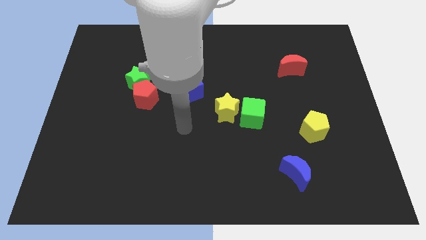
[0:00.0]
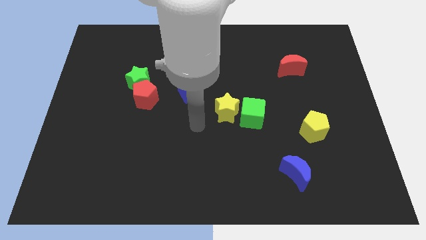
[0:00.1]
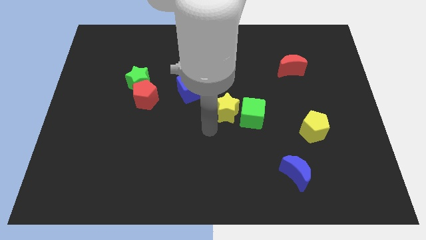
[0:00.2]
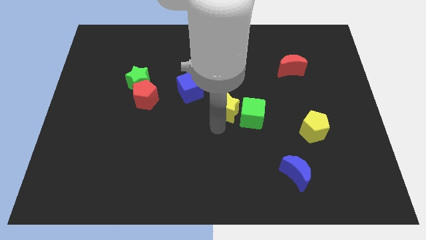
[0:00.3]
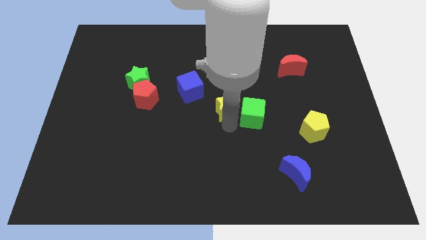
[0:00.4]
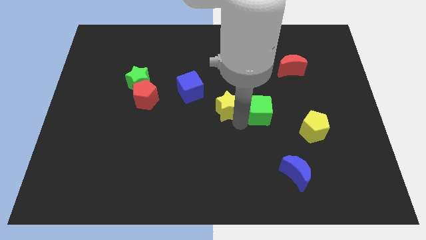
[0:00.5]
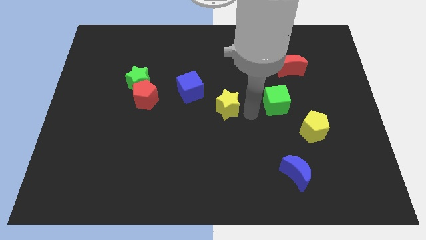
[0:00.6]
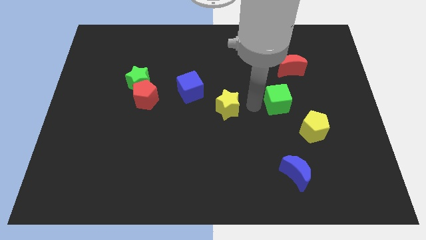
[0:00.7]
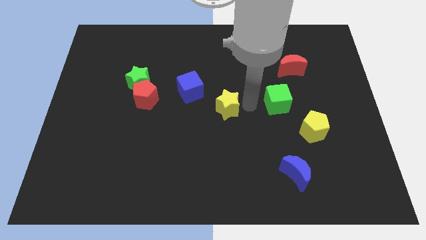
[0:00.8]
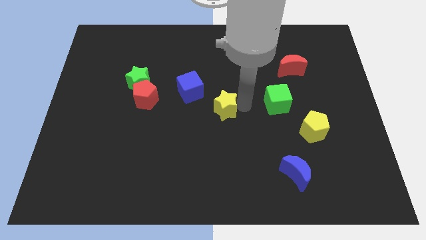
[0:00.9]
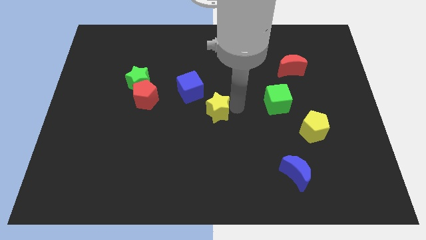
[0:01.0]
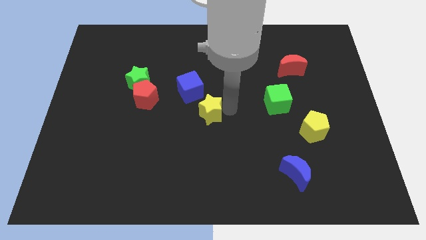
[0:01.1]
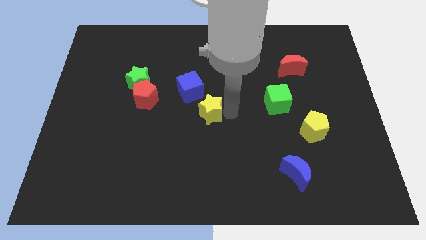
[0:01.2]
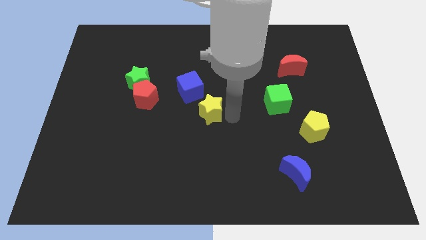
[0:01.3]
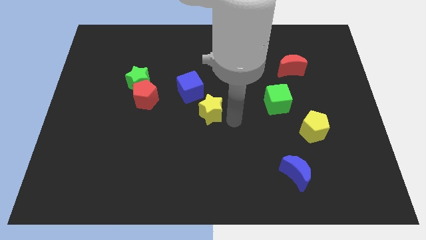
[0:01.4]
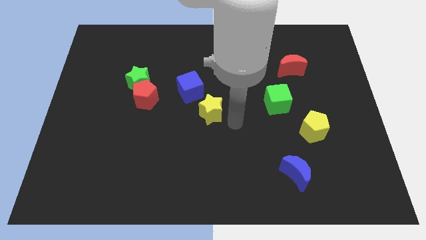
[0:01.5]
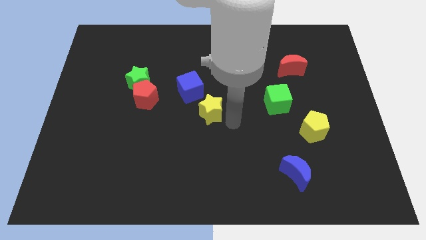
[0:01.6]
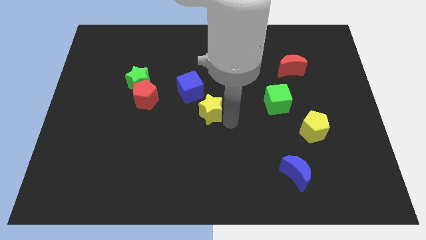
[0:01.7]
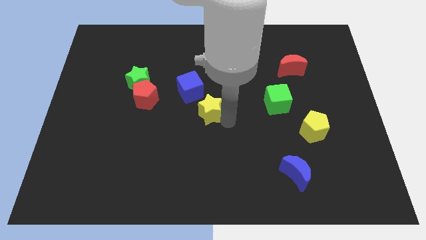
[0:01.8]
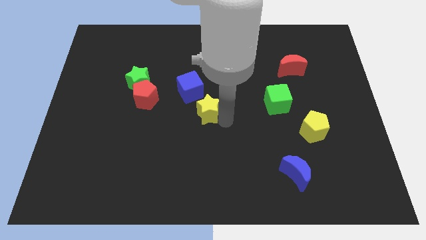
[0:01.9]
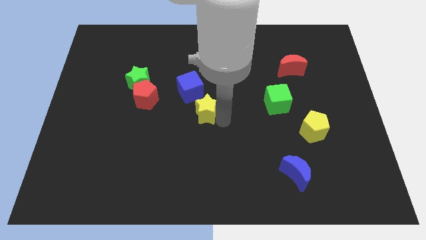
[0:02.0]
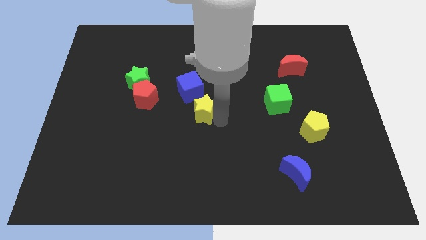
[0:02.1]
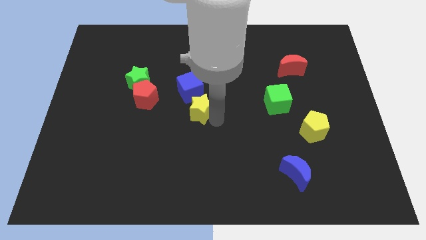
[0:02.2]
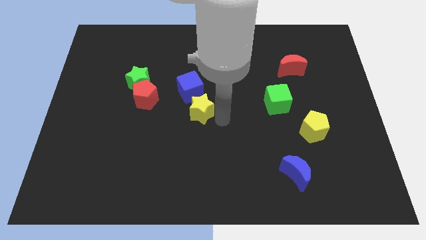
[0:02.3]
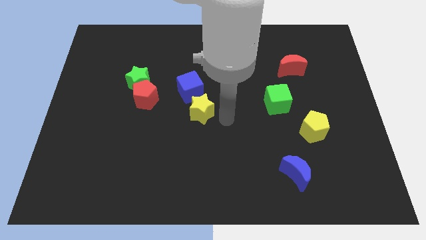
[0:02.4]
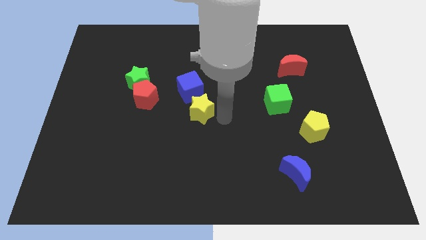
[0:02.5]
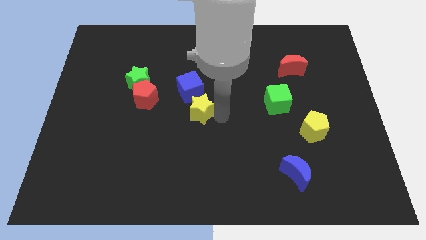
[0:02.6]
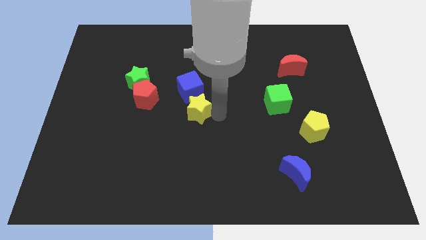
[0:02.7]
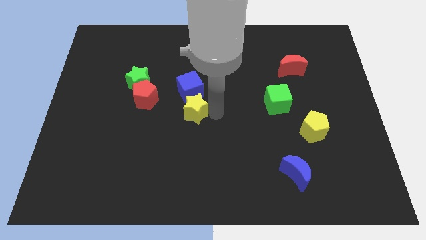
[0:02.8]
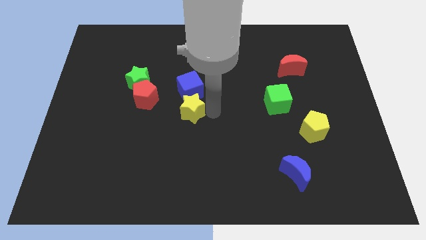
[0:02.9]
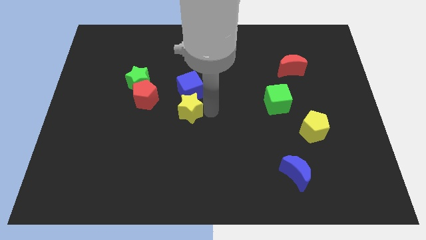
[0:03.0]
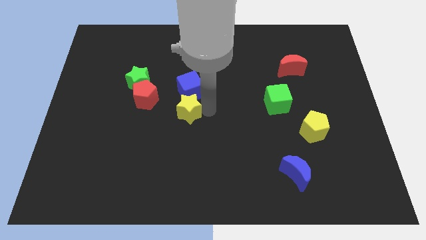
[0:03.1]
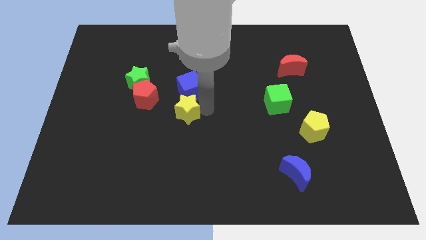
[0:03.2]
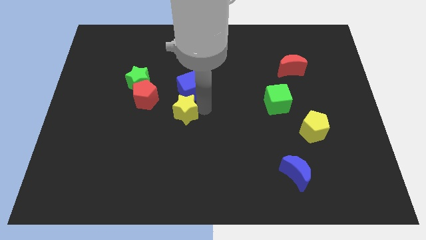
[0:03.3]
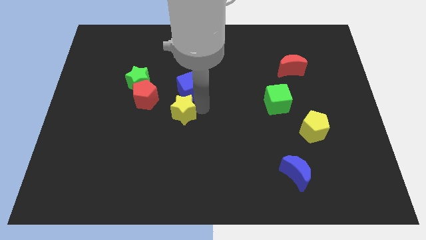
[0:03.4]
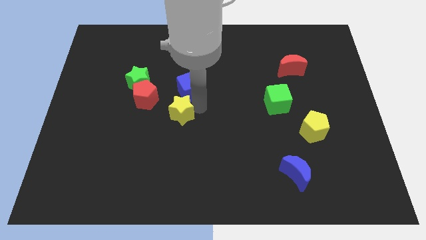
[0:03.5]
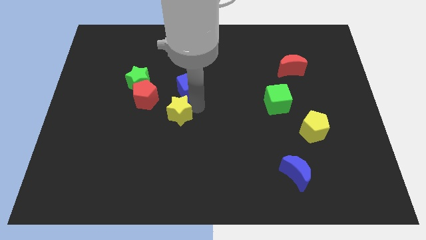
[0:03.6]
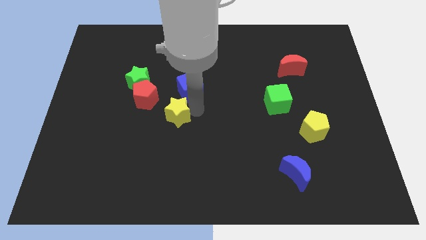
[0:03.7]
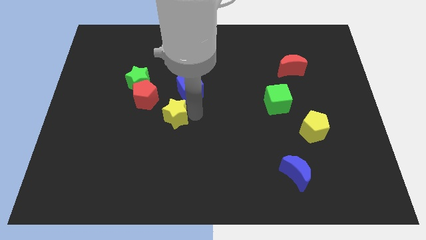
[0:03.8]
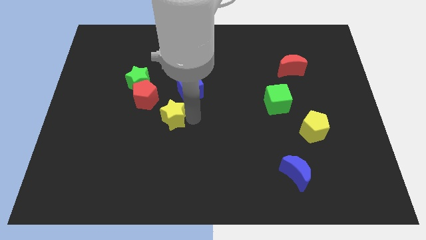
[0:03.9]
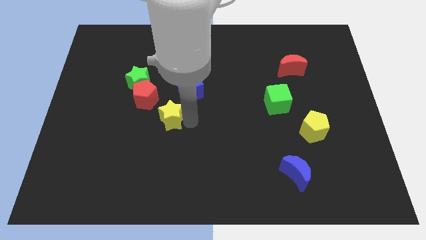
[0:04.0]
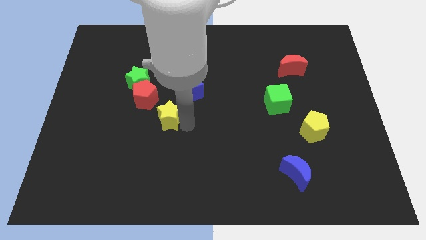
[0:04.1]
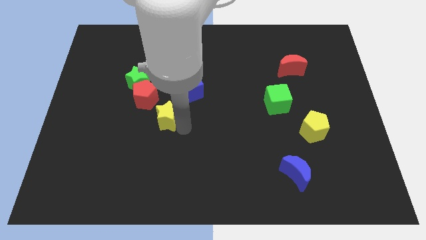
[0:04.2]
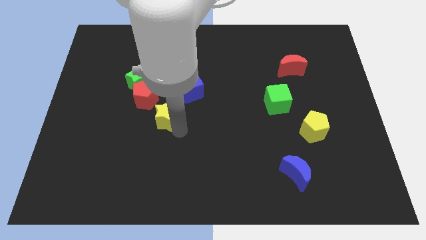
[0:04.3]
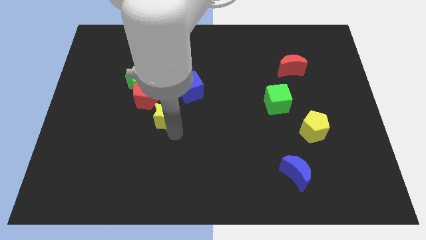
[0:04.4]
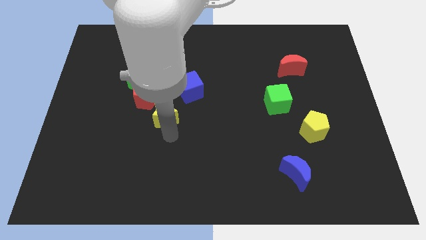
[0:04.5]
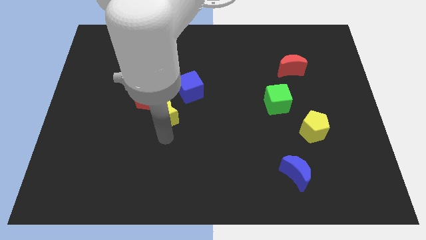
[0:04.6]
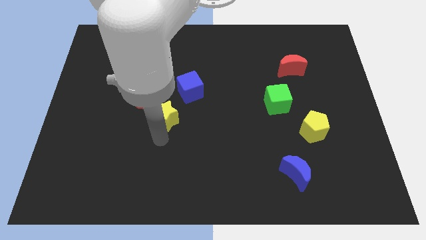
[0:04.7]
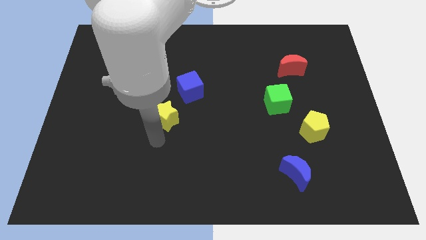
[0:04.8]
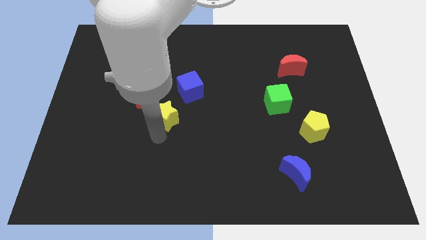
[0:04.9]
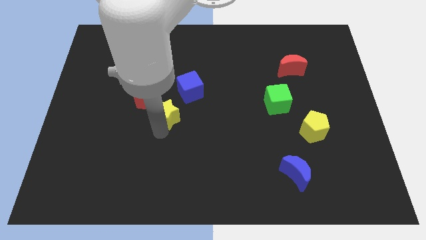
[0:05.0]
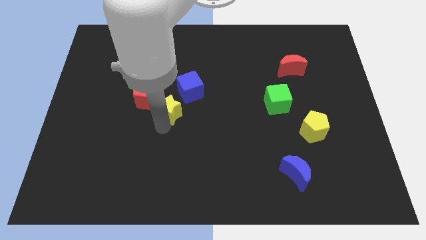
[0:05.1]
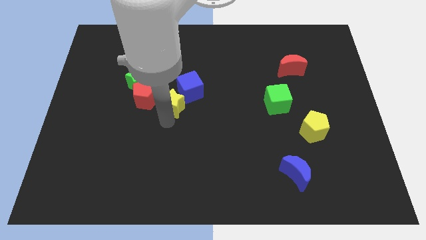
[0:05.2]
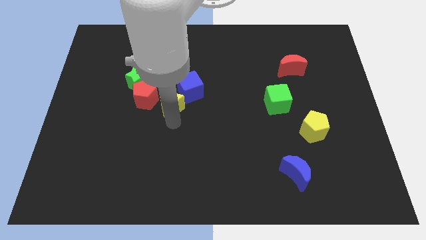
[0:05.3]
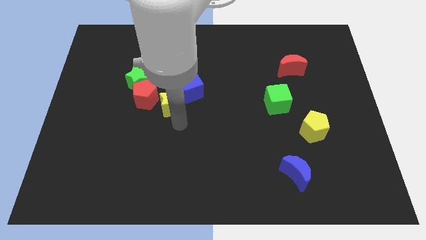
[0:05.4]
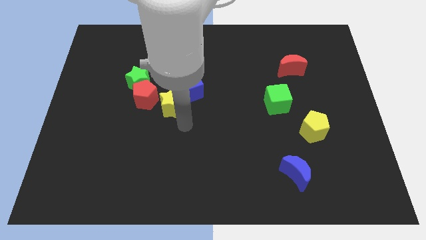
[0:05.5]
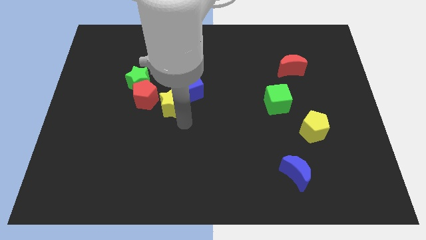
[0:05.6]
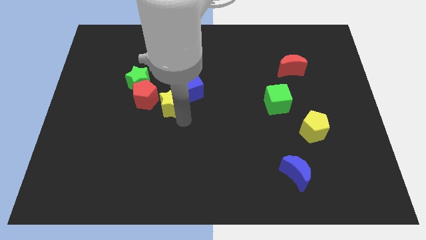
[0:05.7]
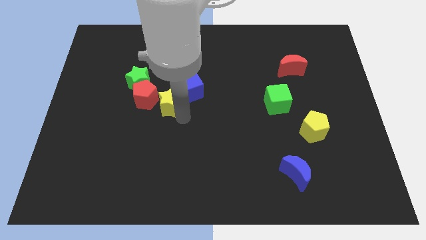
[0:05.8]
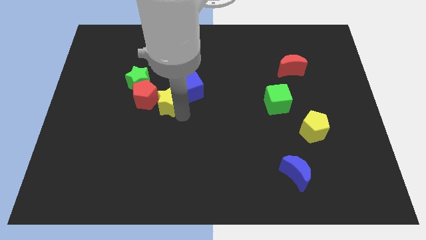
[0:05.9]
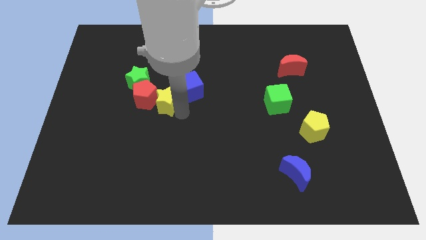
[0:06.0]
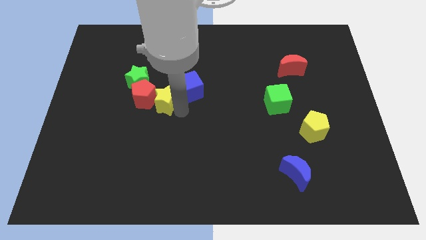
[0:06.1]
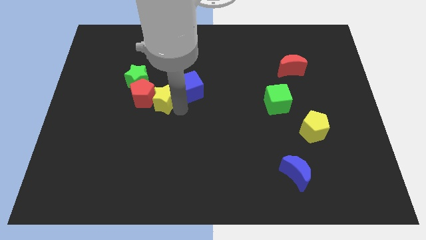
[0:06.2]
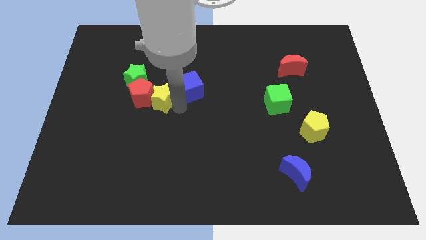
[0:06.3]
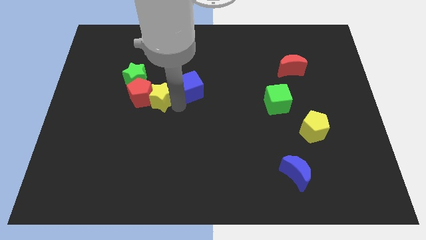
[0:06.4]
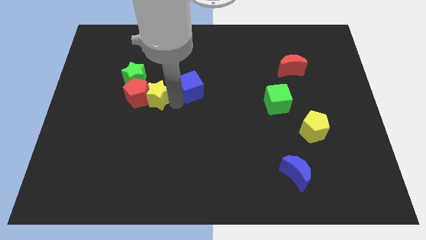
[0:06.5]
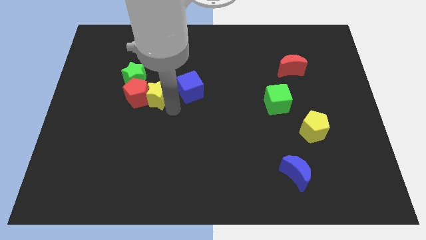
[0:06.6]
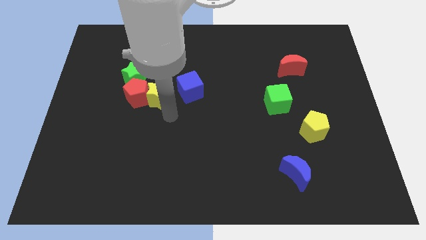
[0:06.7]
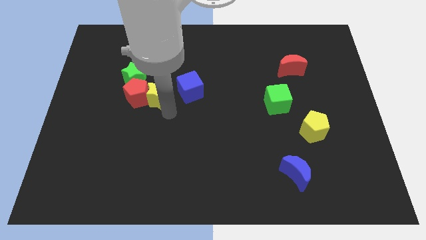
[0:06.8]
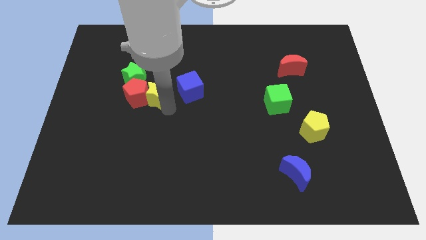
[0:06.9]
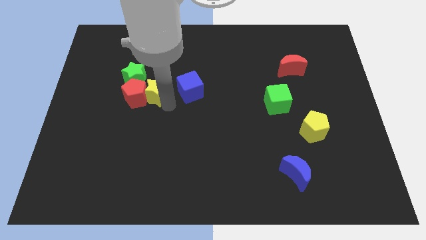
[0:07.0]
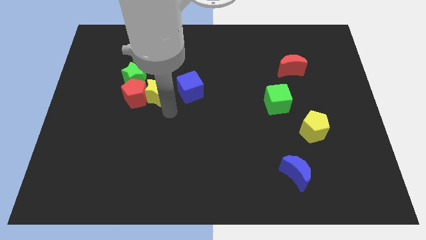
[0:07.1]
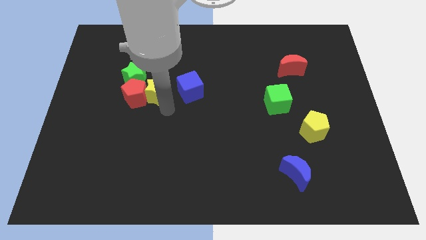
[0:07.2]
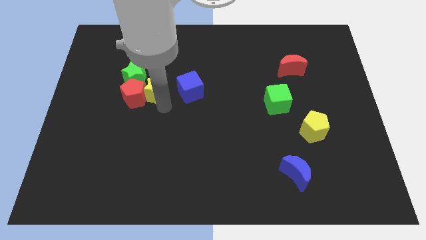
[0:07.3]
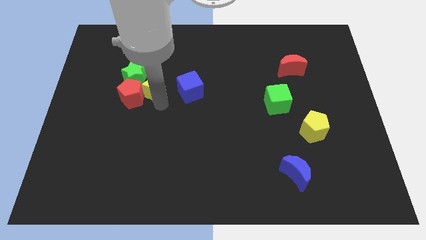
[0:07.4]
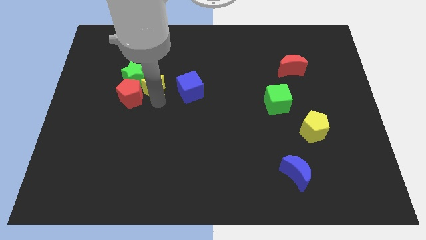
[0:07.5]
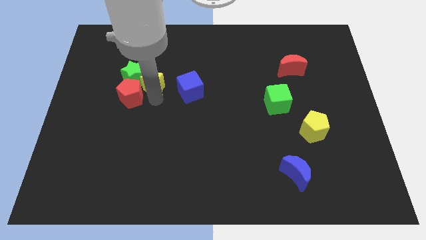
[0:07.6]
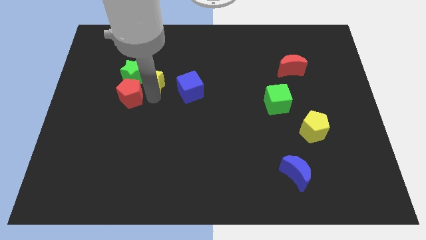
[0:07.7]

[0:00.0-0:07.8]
push the yellow star to the top of the red pentagon
